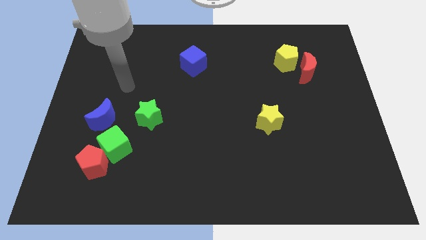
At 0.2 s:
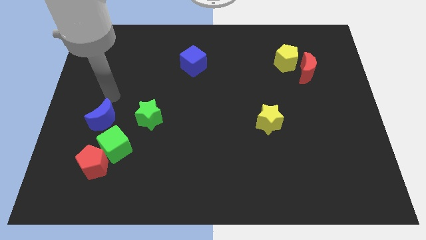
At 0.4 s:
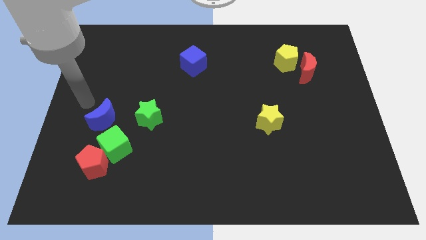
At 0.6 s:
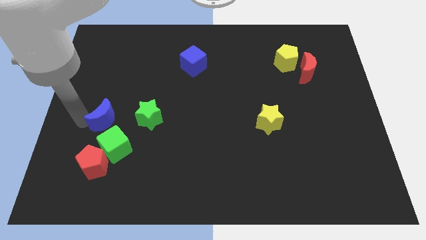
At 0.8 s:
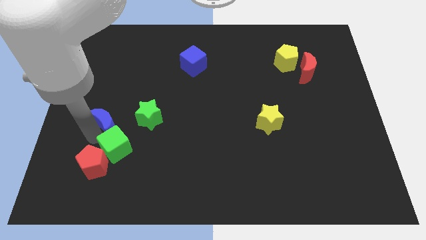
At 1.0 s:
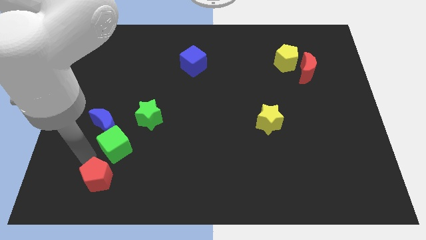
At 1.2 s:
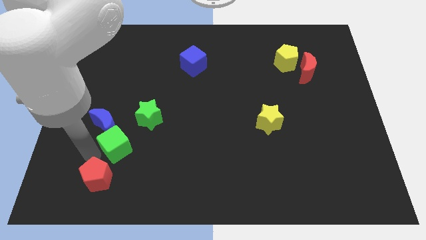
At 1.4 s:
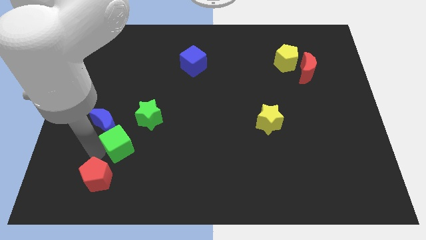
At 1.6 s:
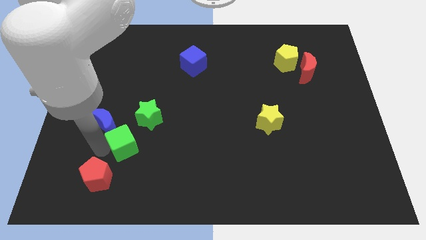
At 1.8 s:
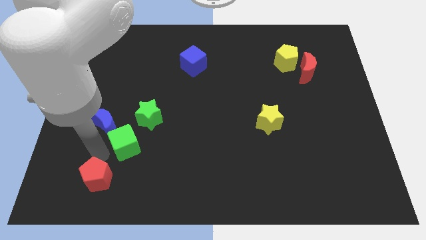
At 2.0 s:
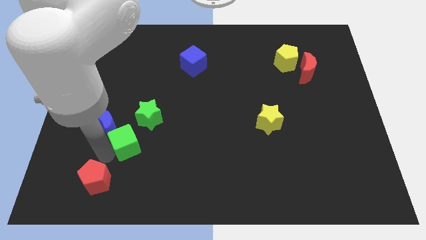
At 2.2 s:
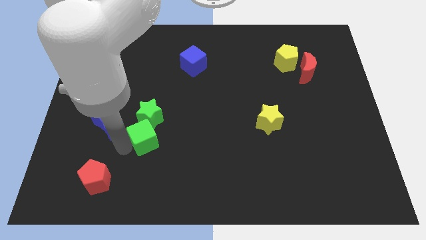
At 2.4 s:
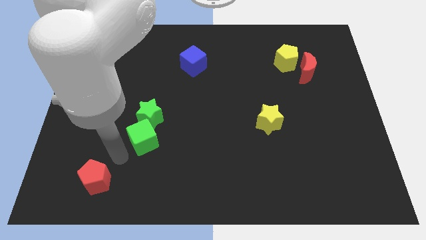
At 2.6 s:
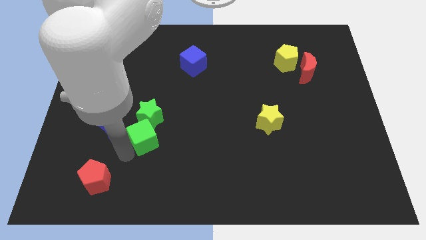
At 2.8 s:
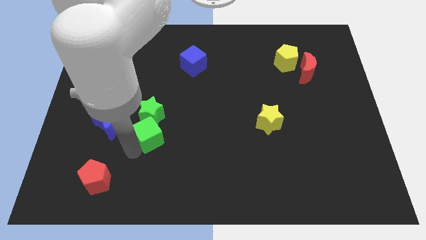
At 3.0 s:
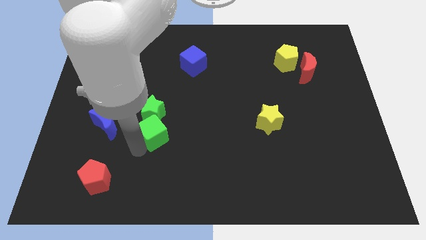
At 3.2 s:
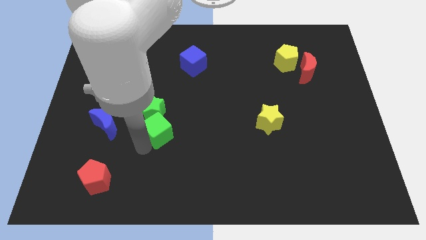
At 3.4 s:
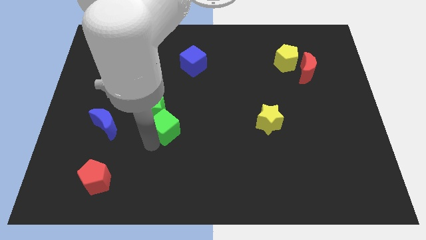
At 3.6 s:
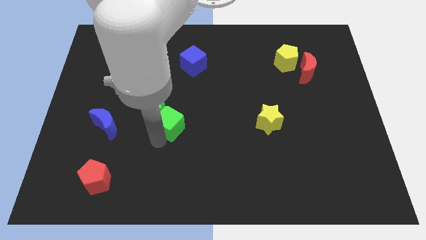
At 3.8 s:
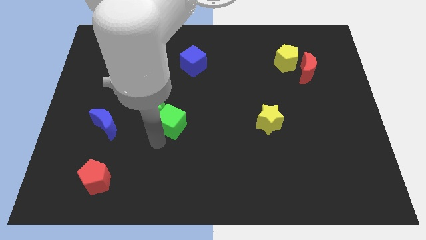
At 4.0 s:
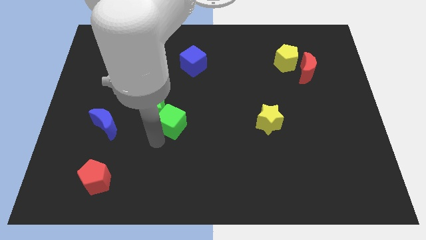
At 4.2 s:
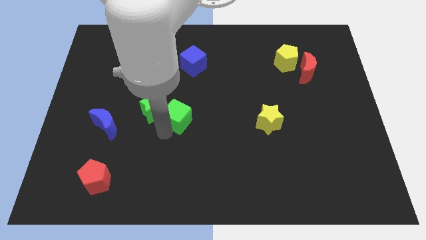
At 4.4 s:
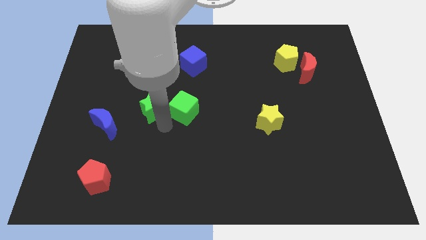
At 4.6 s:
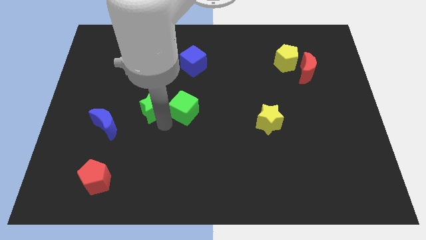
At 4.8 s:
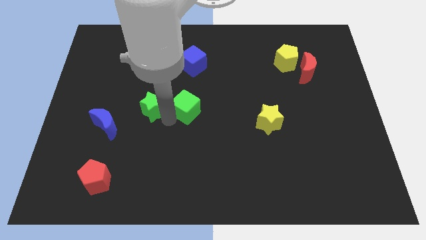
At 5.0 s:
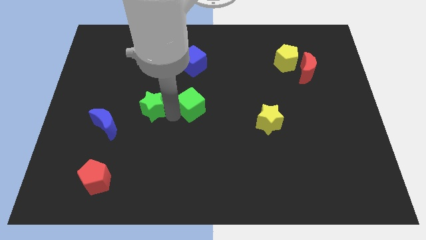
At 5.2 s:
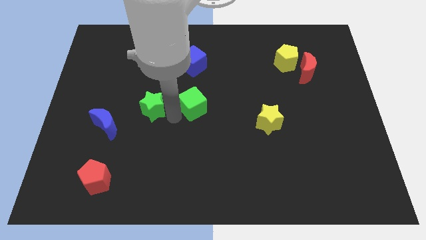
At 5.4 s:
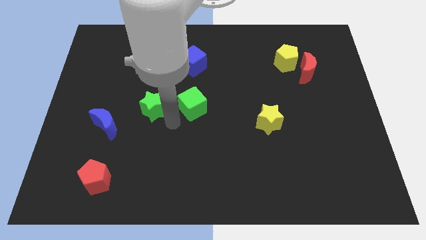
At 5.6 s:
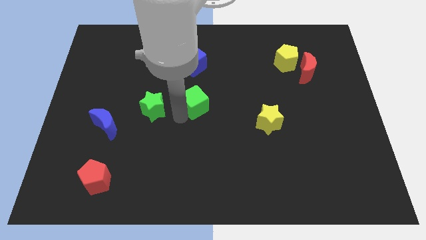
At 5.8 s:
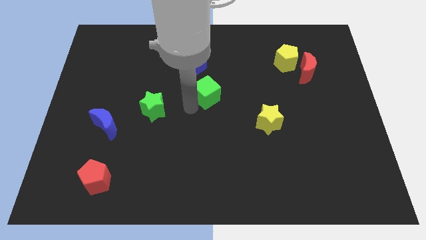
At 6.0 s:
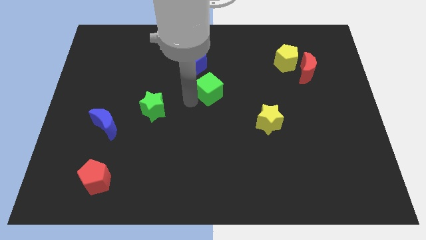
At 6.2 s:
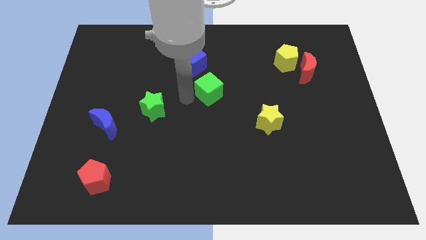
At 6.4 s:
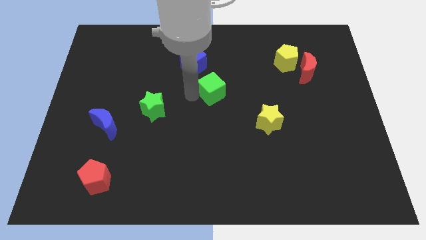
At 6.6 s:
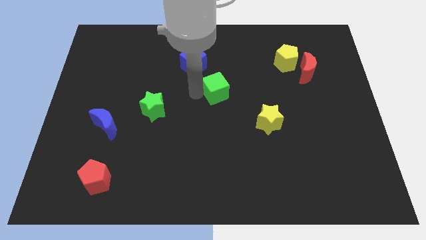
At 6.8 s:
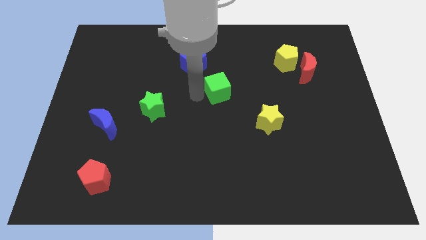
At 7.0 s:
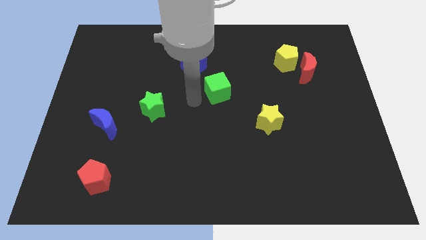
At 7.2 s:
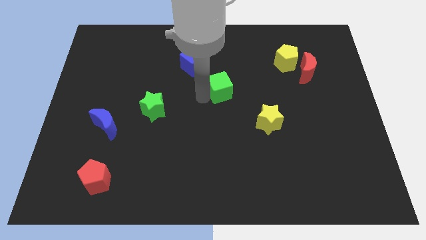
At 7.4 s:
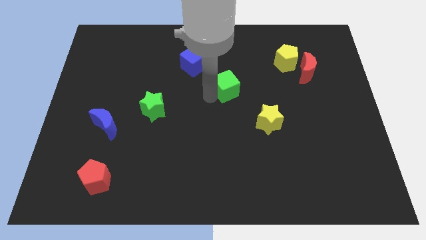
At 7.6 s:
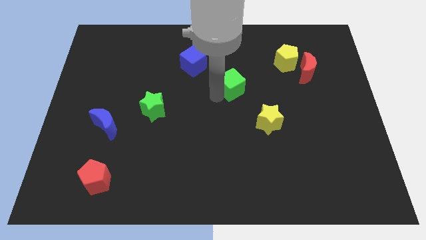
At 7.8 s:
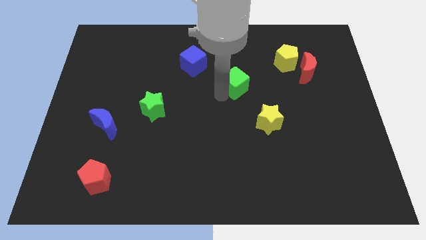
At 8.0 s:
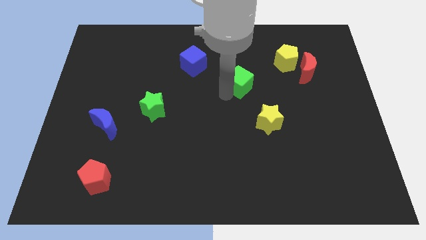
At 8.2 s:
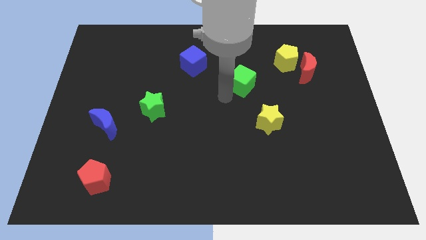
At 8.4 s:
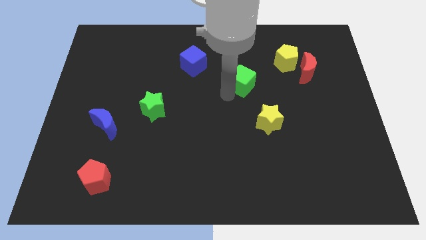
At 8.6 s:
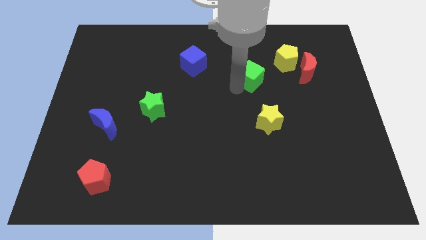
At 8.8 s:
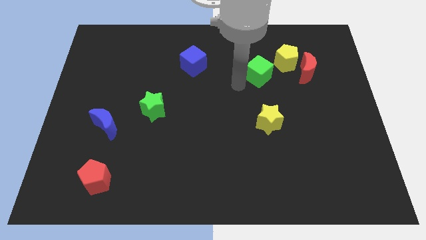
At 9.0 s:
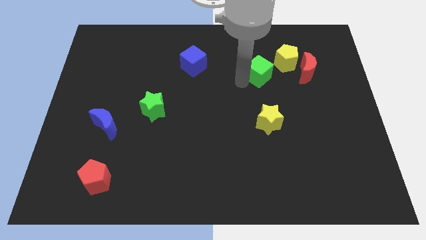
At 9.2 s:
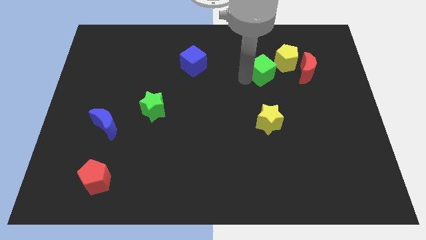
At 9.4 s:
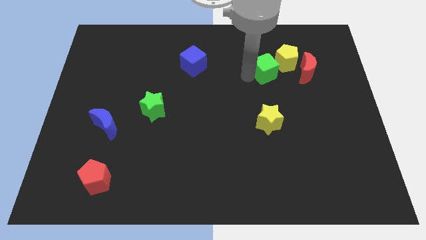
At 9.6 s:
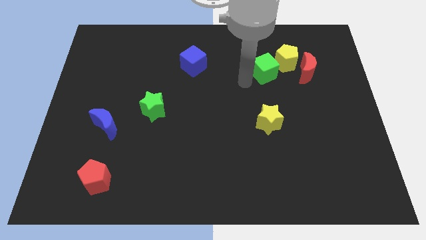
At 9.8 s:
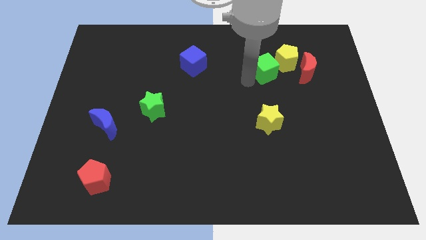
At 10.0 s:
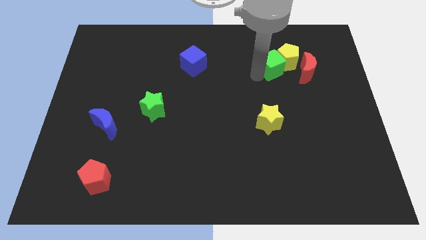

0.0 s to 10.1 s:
slide the green cube towards the yellow pentagon

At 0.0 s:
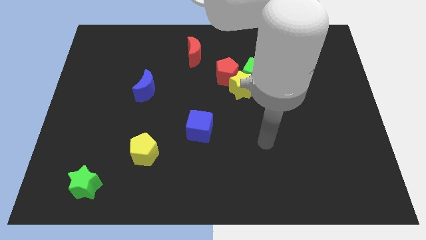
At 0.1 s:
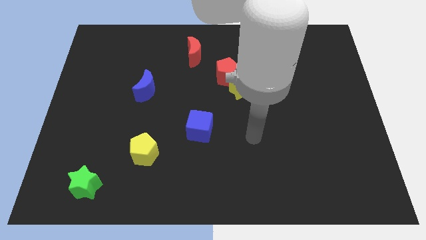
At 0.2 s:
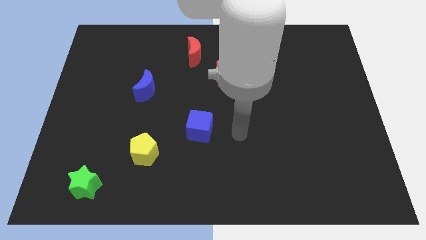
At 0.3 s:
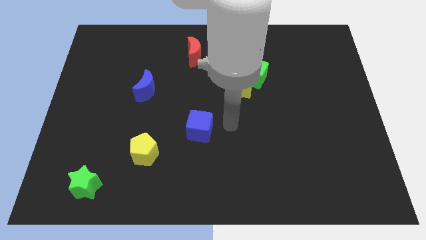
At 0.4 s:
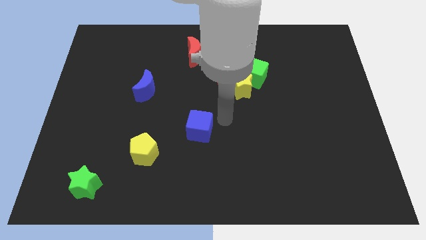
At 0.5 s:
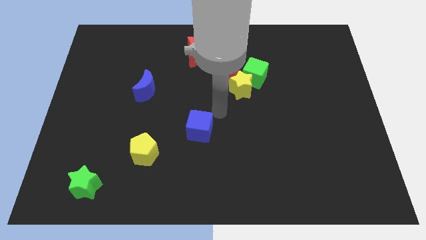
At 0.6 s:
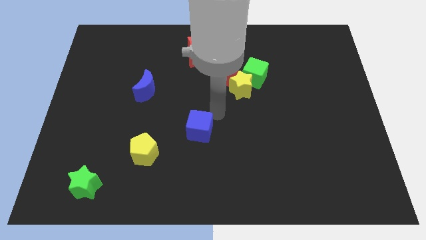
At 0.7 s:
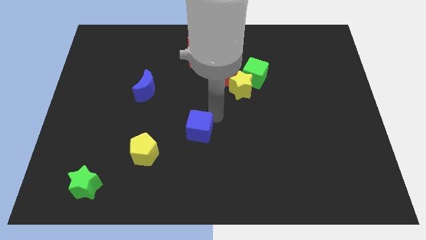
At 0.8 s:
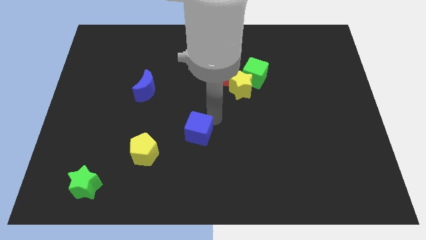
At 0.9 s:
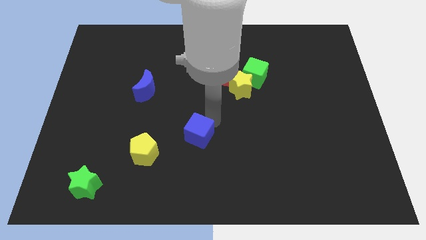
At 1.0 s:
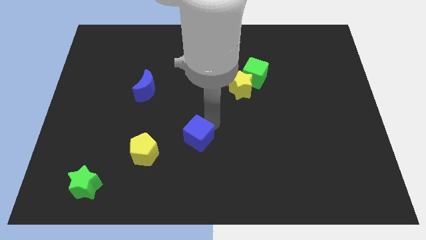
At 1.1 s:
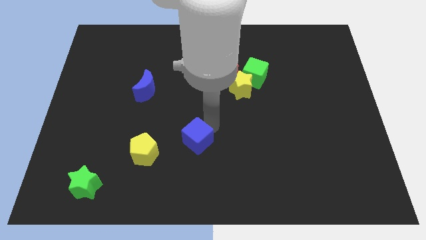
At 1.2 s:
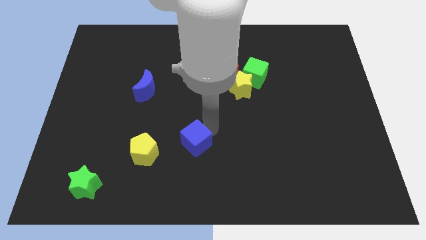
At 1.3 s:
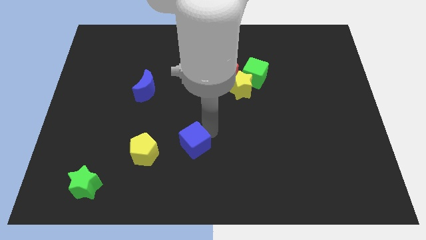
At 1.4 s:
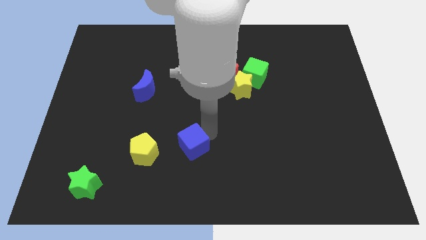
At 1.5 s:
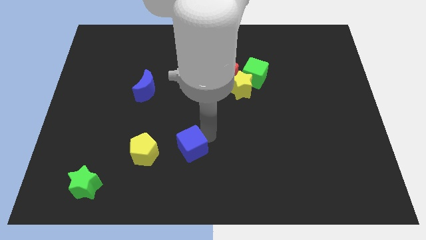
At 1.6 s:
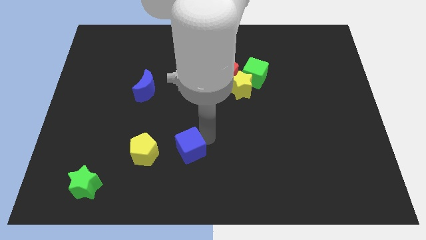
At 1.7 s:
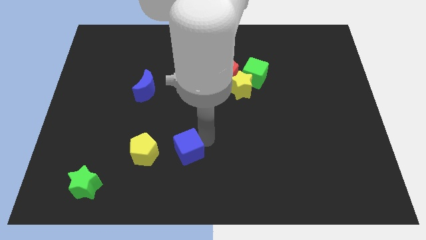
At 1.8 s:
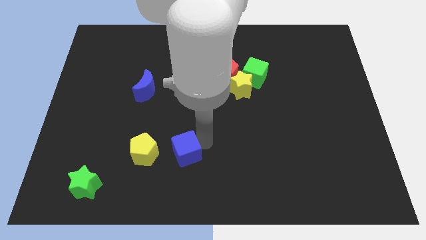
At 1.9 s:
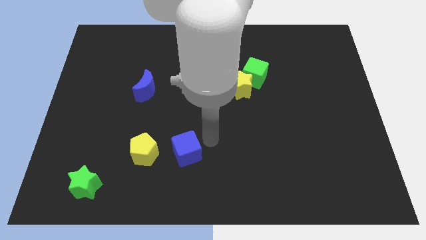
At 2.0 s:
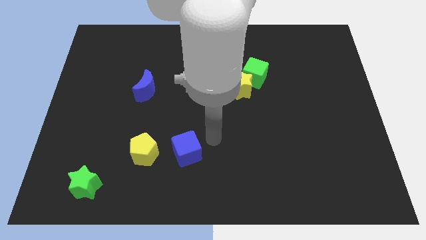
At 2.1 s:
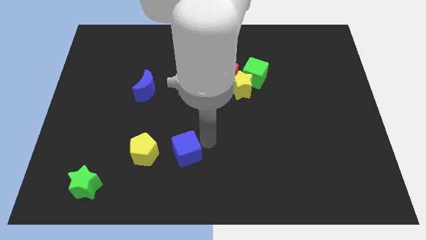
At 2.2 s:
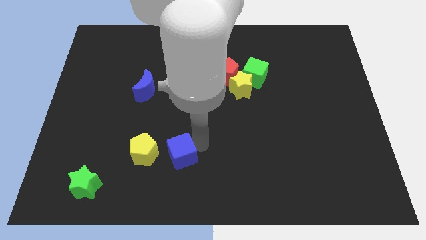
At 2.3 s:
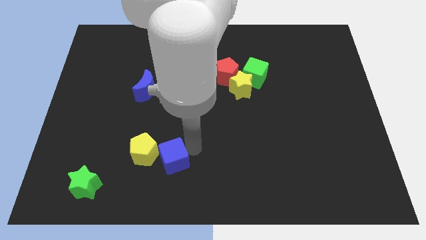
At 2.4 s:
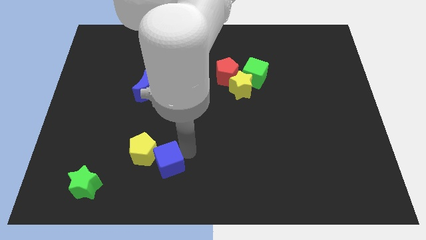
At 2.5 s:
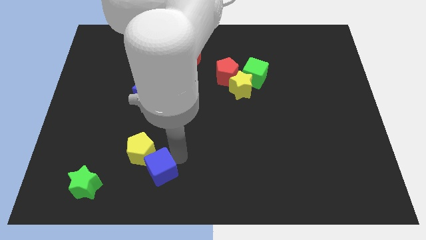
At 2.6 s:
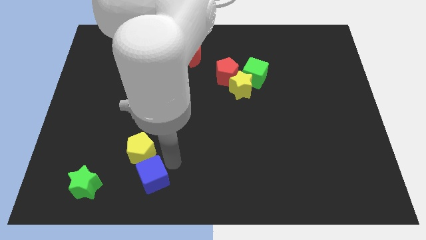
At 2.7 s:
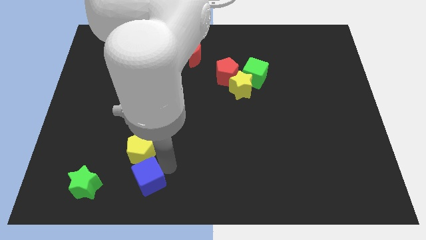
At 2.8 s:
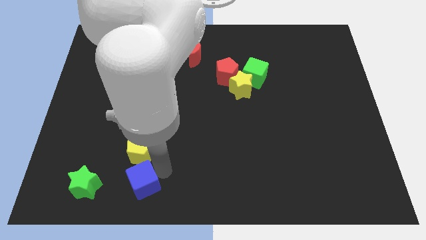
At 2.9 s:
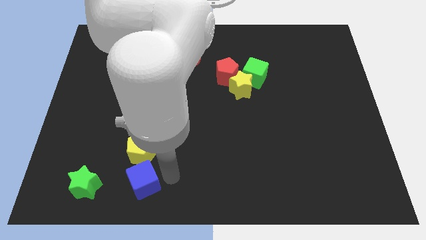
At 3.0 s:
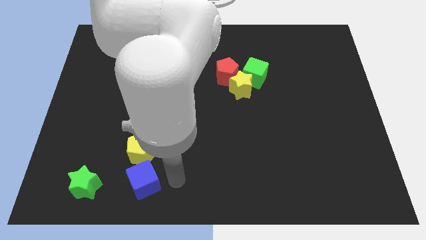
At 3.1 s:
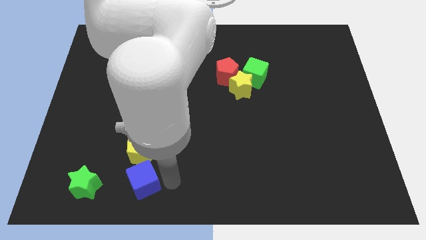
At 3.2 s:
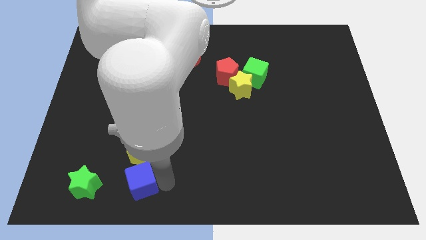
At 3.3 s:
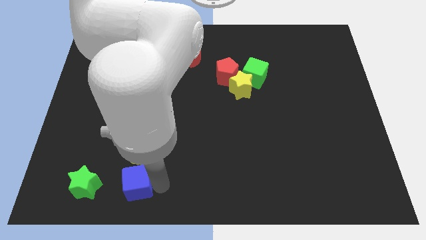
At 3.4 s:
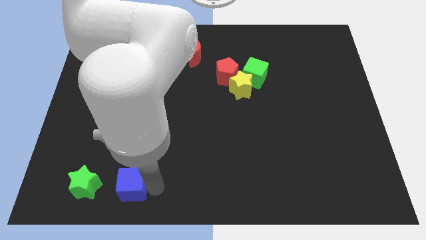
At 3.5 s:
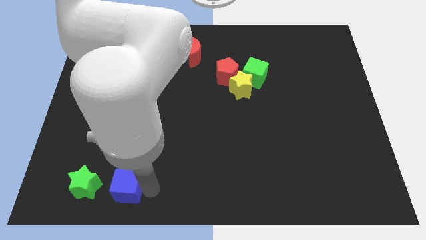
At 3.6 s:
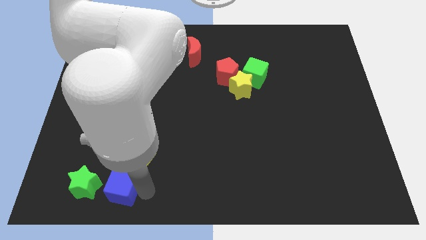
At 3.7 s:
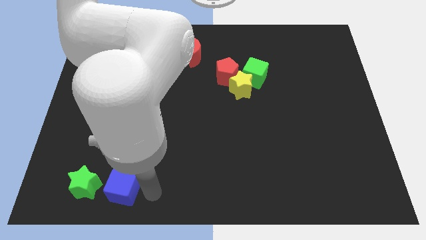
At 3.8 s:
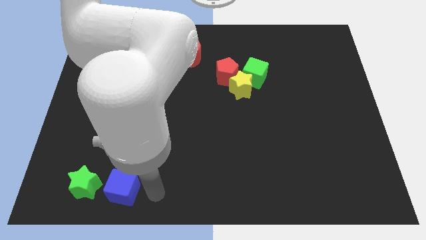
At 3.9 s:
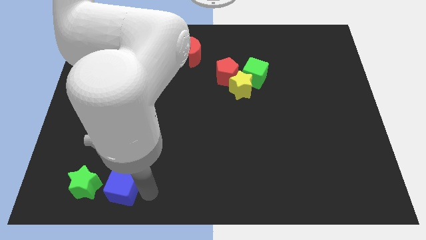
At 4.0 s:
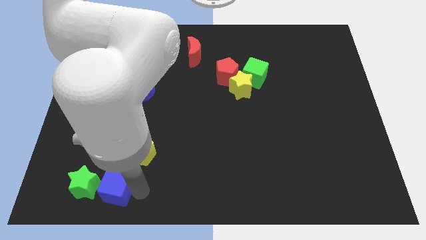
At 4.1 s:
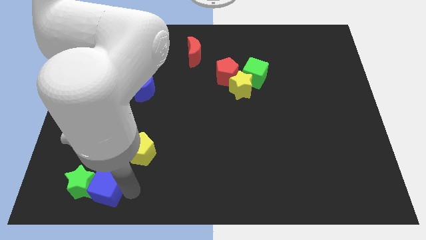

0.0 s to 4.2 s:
put the blue cube next to the green star
